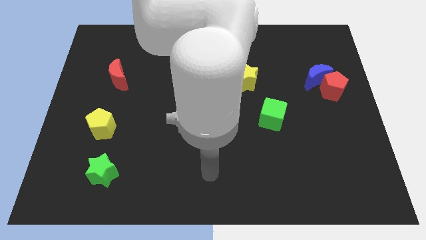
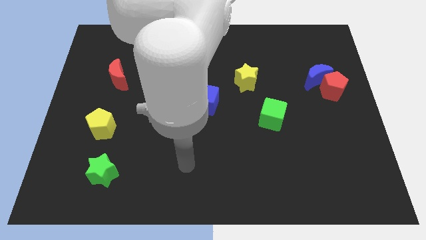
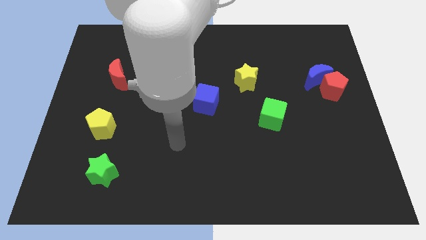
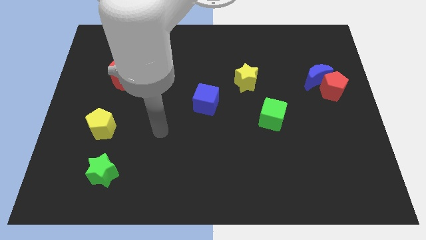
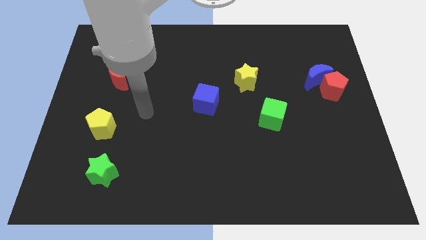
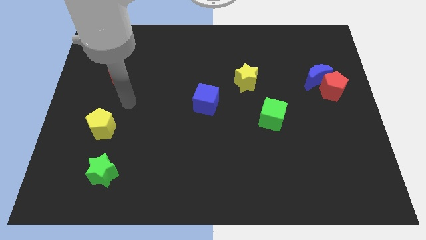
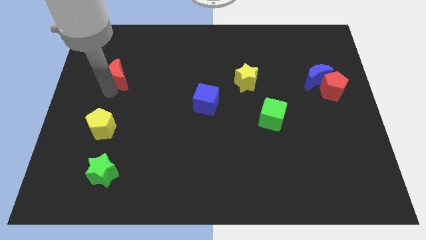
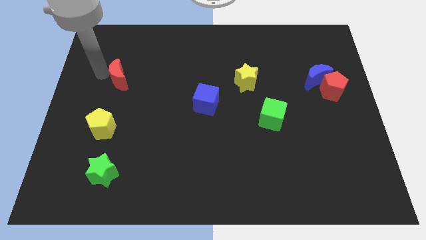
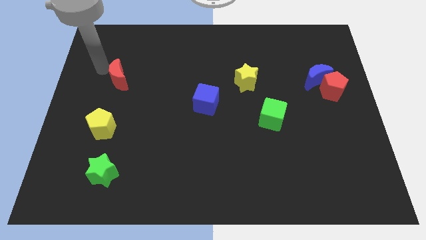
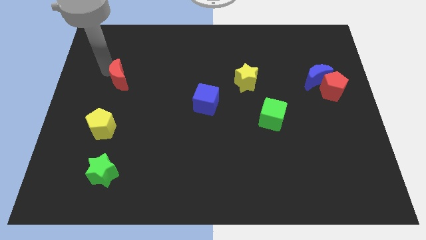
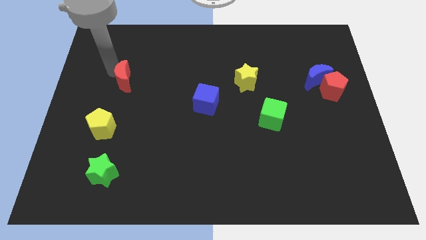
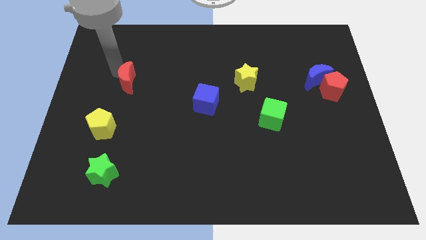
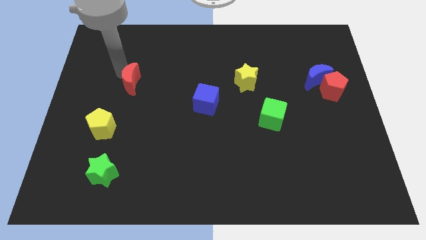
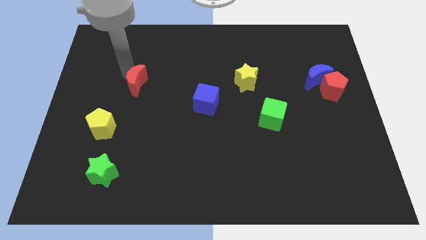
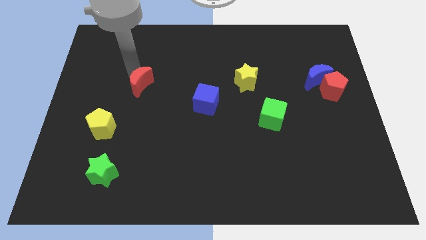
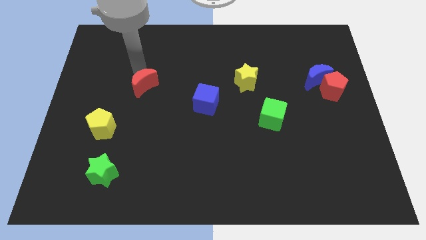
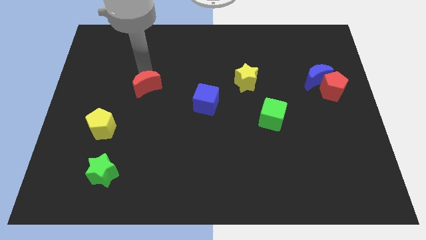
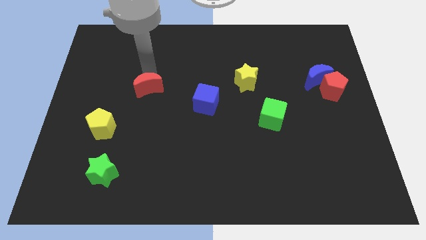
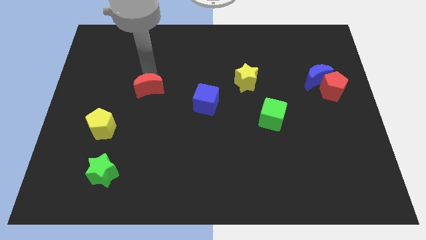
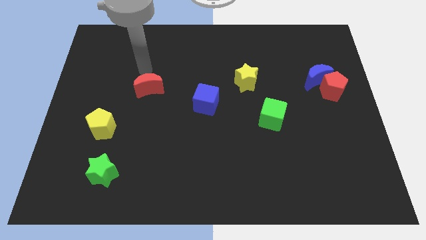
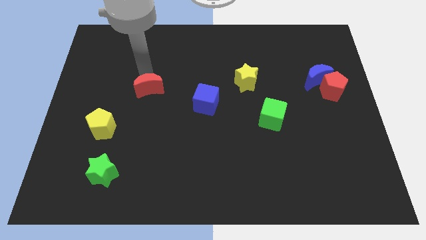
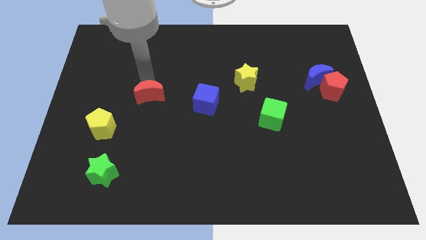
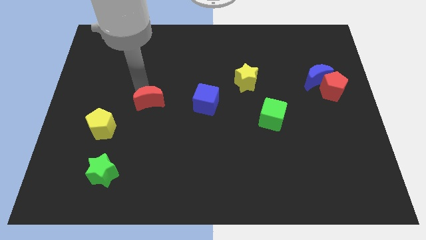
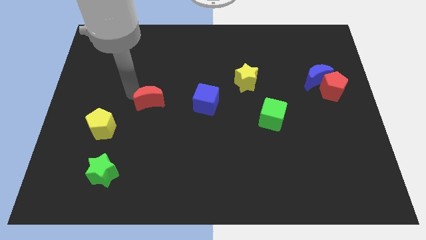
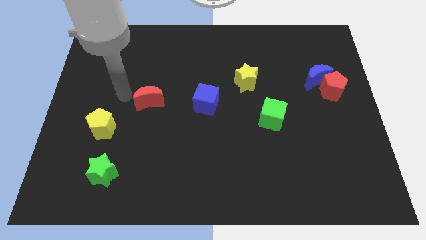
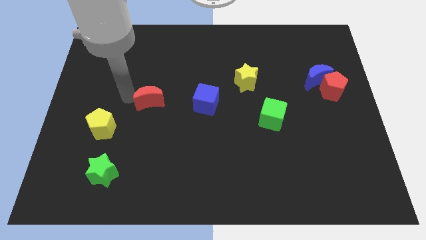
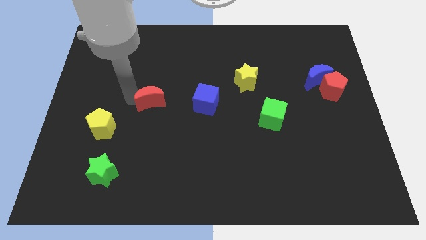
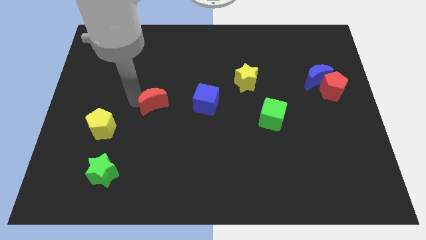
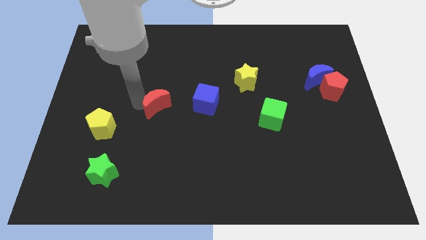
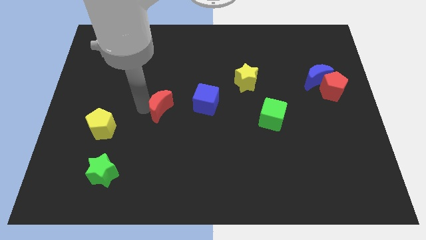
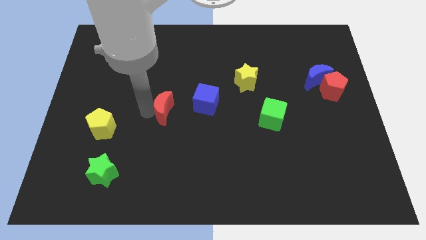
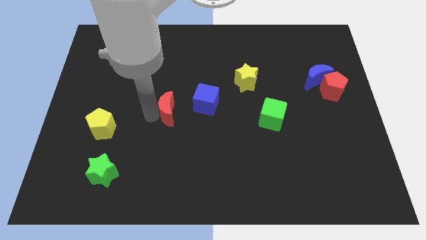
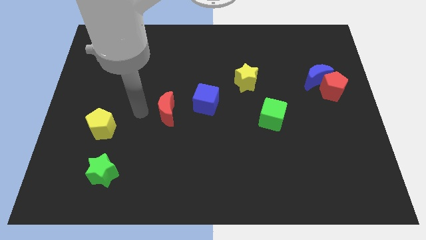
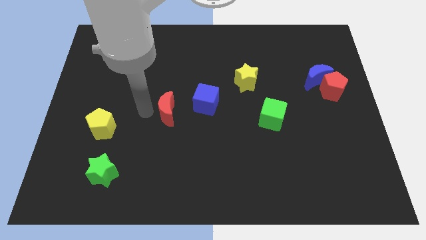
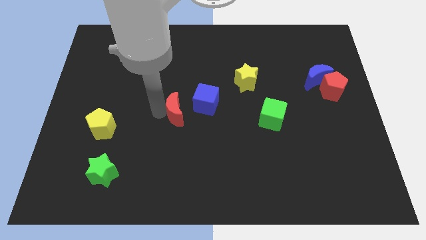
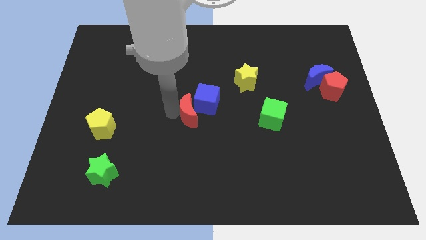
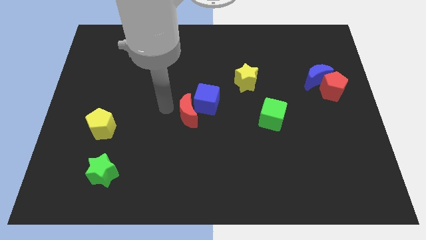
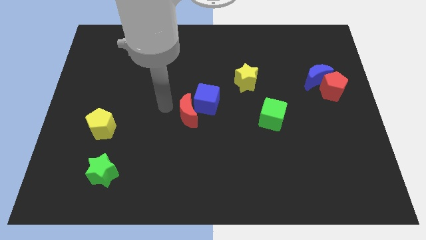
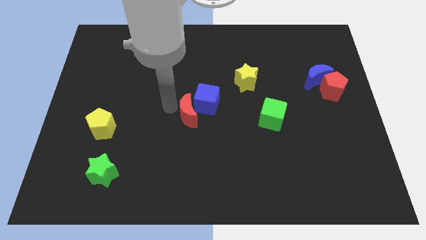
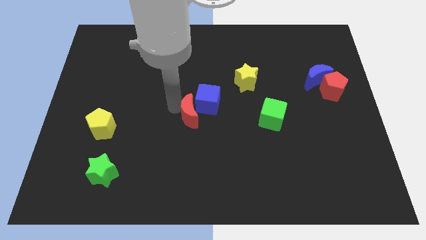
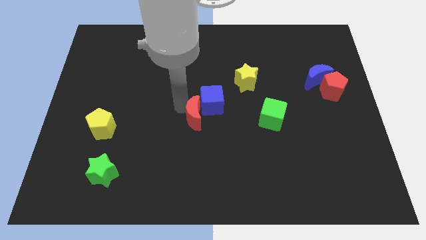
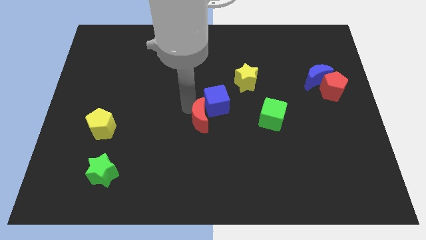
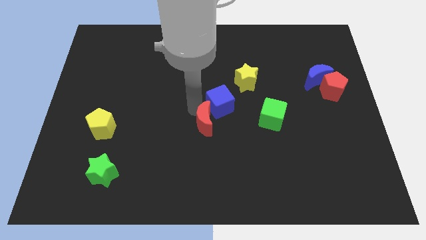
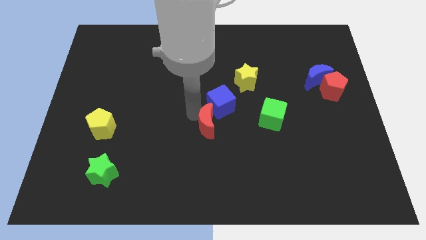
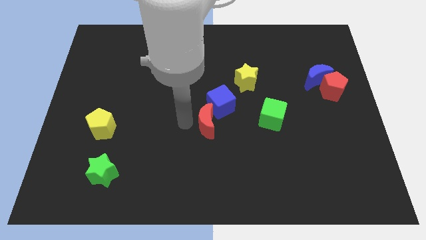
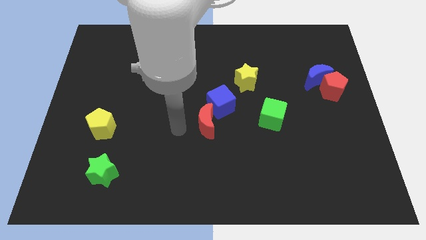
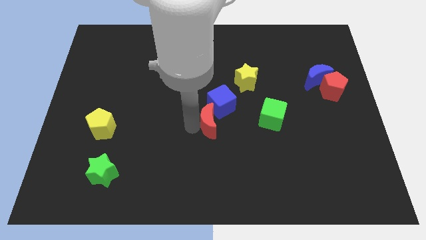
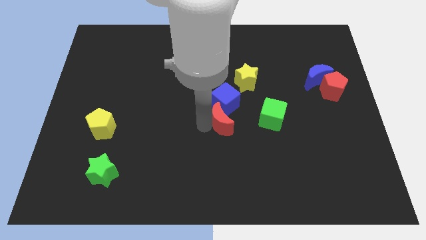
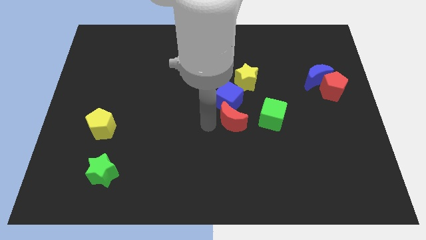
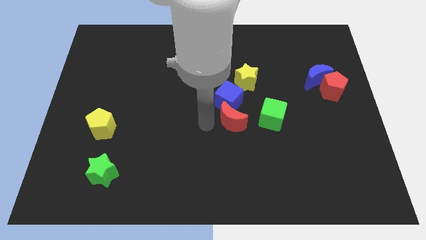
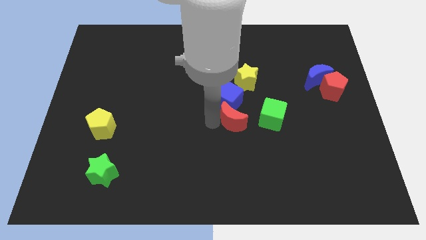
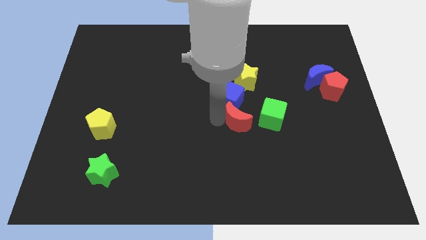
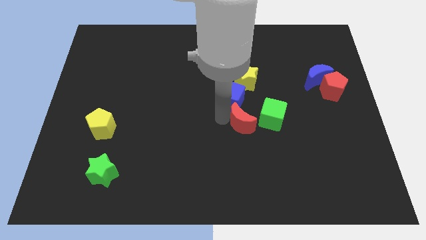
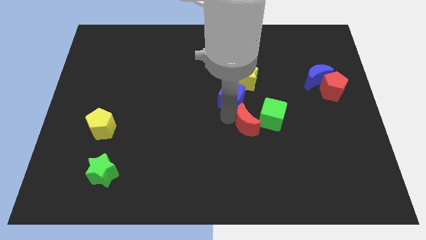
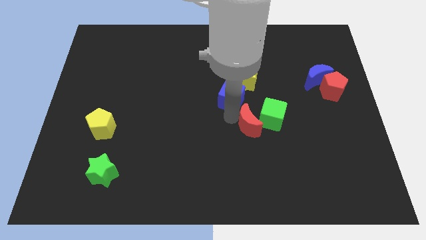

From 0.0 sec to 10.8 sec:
push the red moon to the green cube
